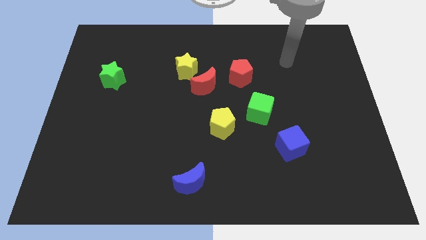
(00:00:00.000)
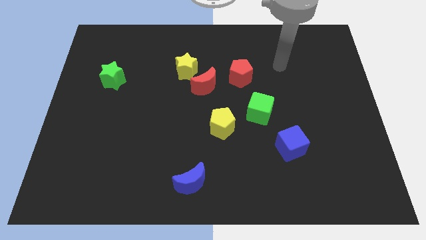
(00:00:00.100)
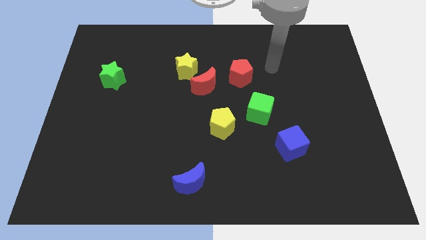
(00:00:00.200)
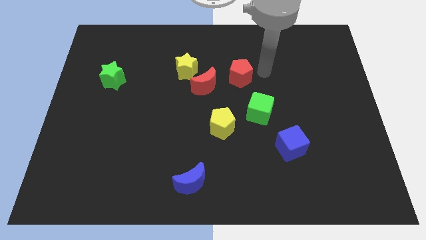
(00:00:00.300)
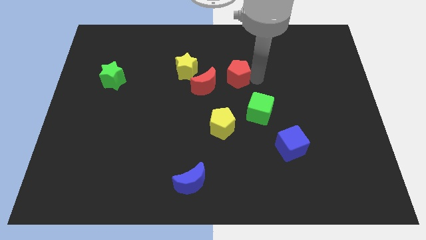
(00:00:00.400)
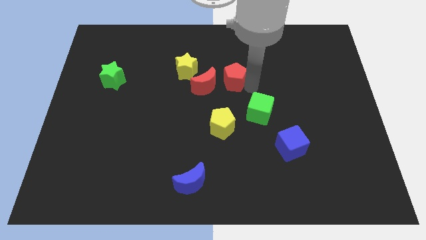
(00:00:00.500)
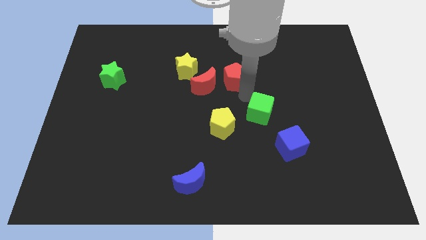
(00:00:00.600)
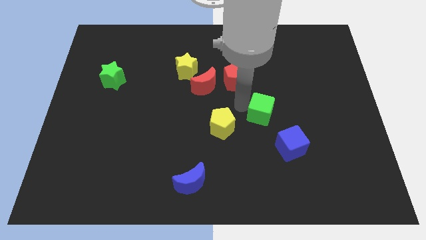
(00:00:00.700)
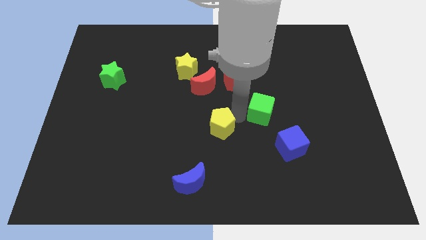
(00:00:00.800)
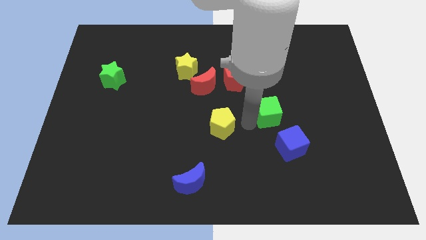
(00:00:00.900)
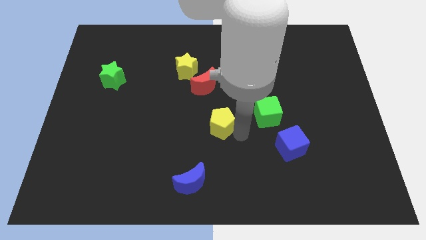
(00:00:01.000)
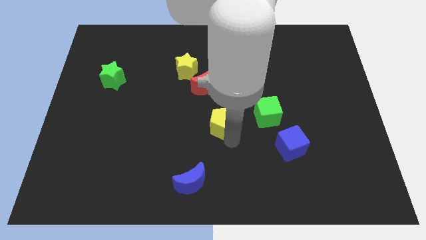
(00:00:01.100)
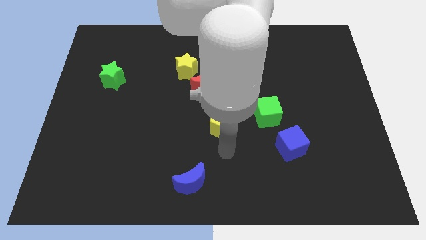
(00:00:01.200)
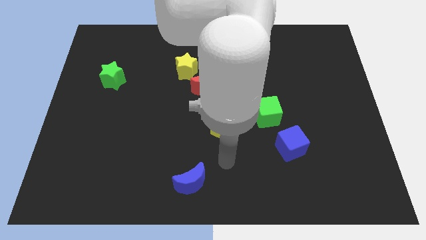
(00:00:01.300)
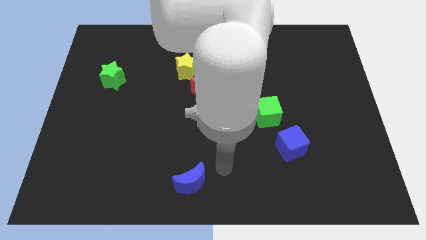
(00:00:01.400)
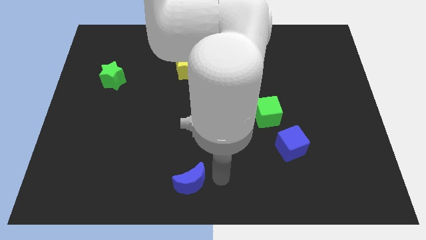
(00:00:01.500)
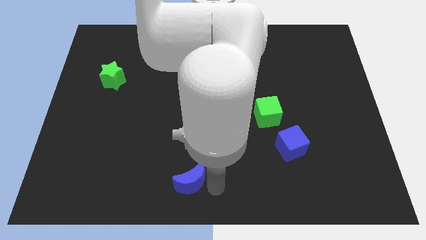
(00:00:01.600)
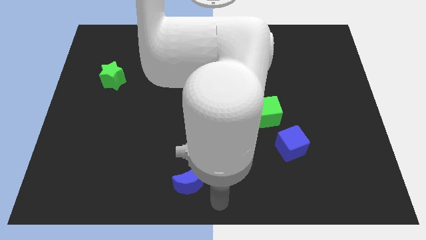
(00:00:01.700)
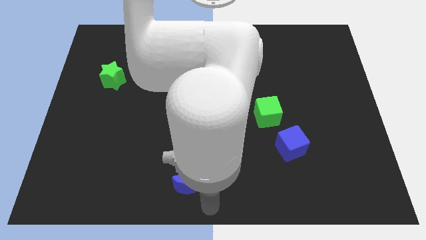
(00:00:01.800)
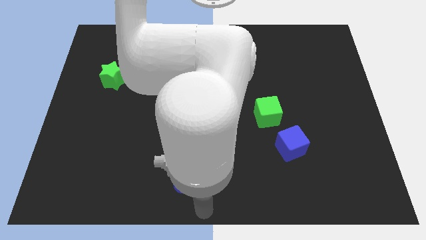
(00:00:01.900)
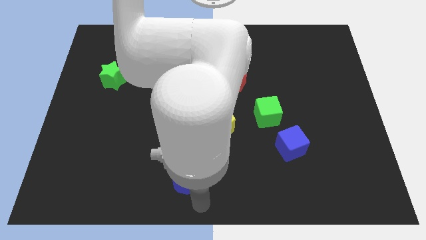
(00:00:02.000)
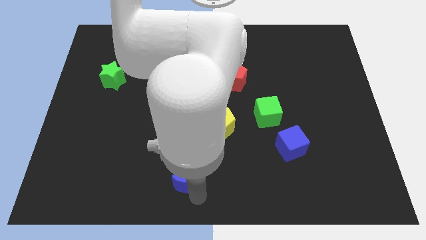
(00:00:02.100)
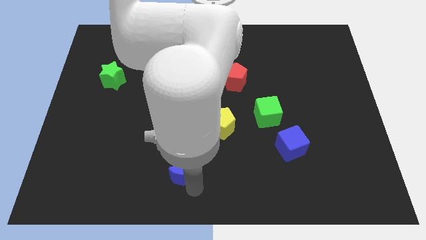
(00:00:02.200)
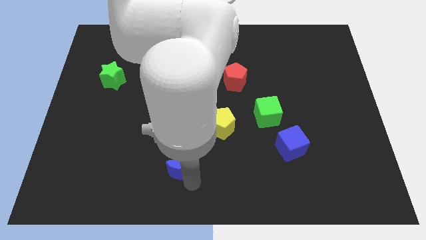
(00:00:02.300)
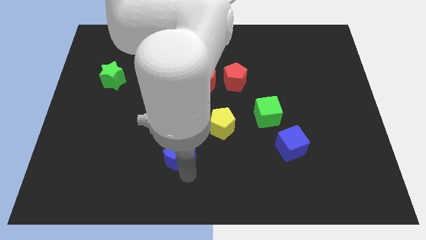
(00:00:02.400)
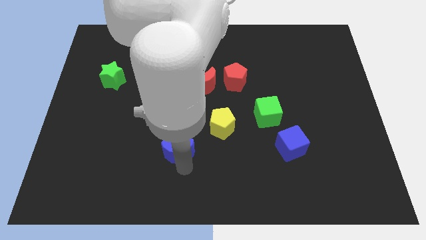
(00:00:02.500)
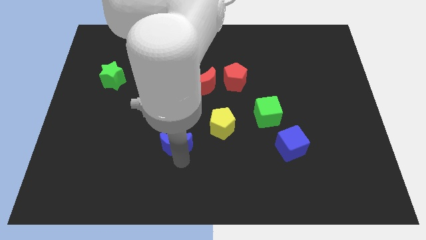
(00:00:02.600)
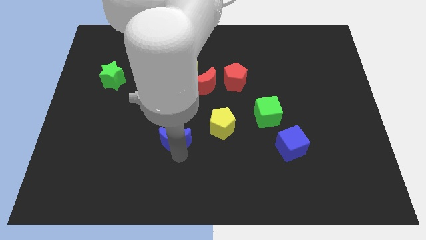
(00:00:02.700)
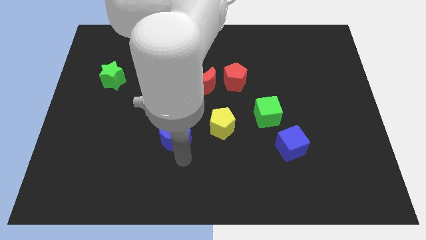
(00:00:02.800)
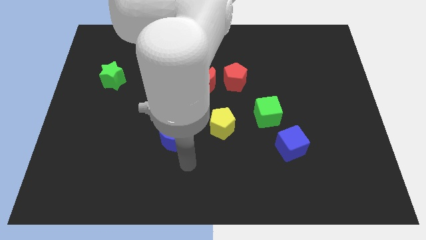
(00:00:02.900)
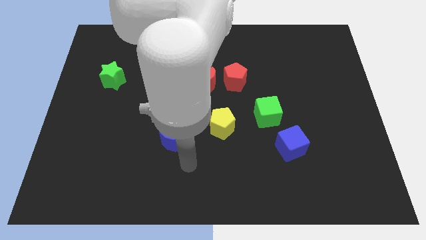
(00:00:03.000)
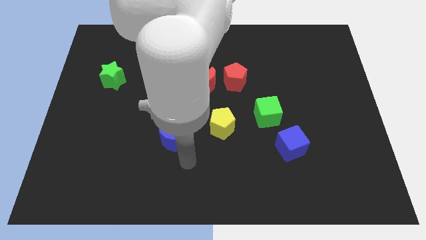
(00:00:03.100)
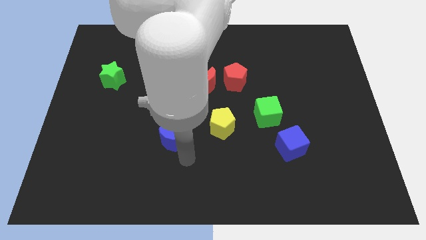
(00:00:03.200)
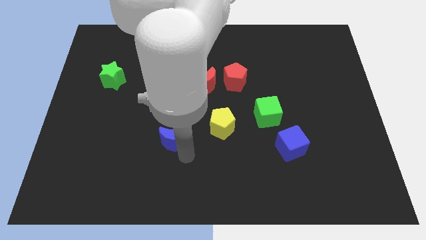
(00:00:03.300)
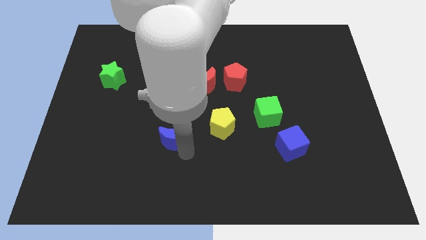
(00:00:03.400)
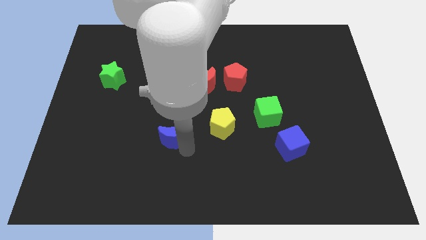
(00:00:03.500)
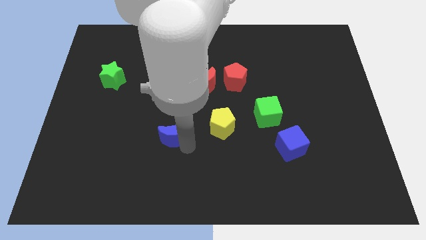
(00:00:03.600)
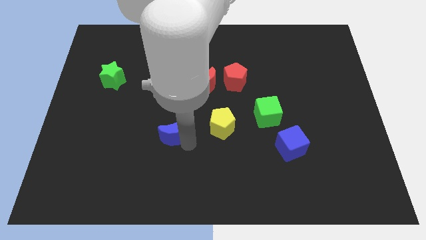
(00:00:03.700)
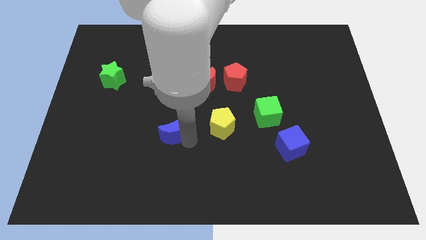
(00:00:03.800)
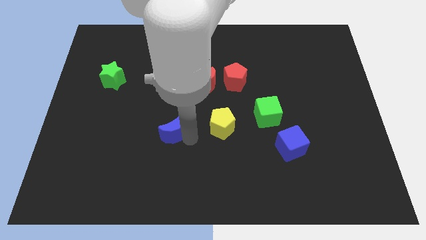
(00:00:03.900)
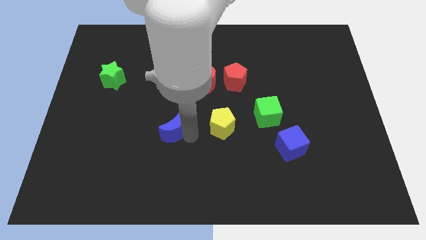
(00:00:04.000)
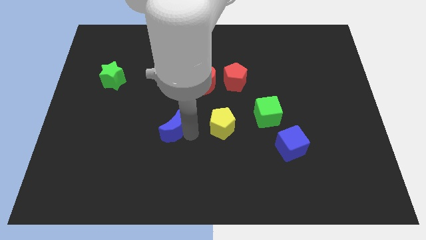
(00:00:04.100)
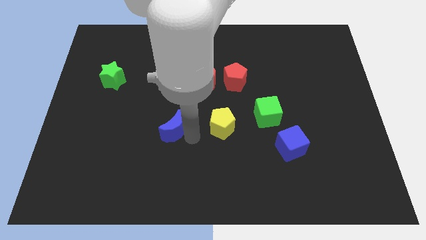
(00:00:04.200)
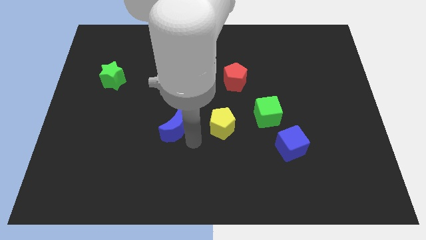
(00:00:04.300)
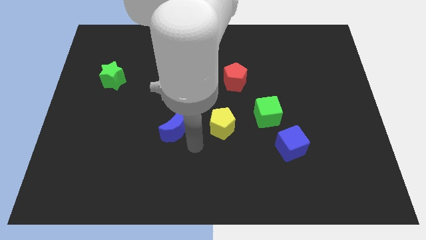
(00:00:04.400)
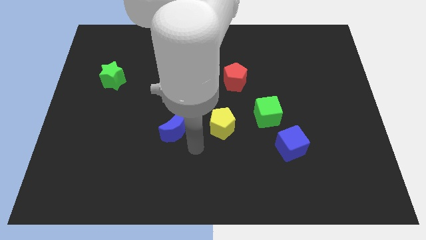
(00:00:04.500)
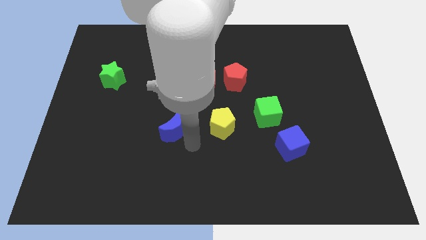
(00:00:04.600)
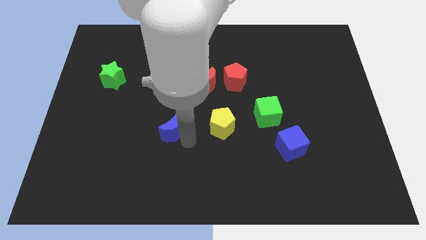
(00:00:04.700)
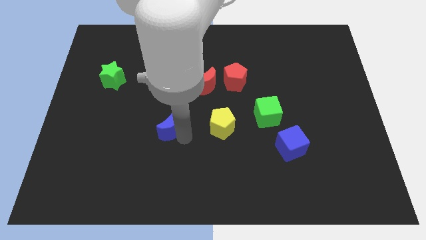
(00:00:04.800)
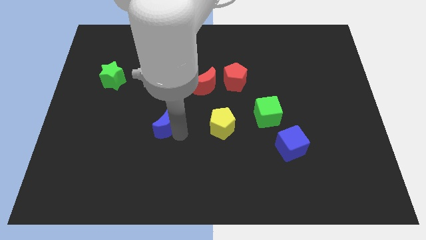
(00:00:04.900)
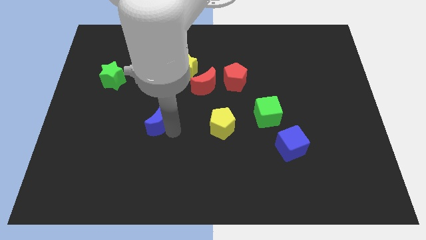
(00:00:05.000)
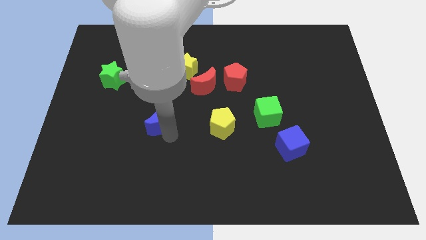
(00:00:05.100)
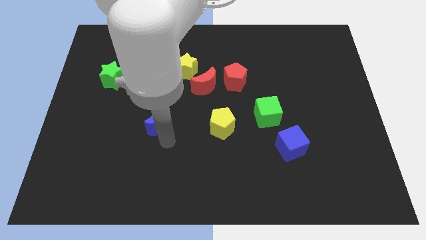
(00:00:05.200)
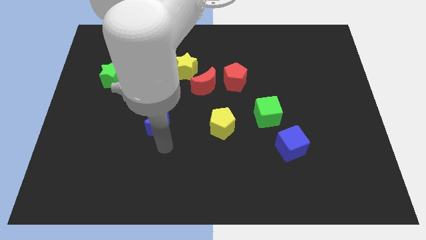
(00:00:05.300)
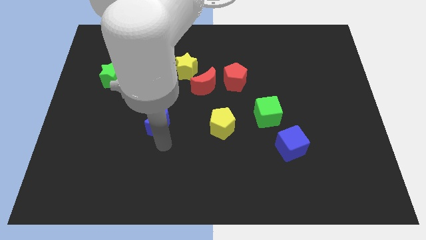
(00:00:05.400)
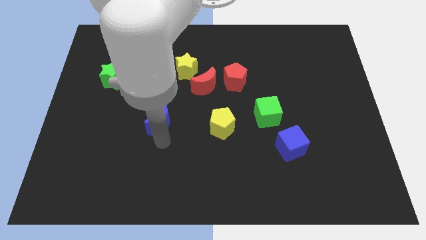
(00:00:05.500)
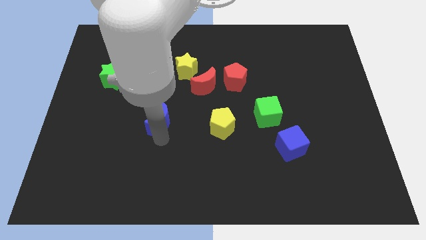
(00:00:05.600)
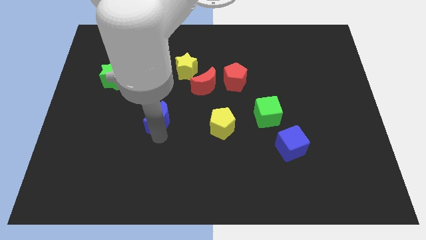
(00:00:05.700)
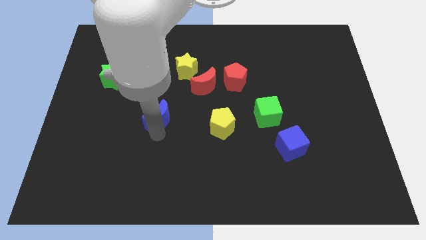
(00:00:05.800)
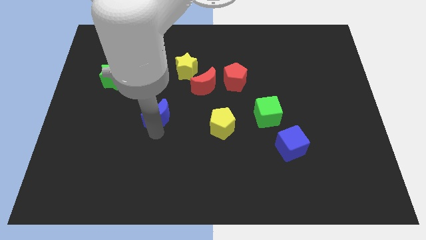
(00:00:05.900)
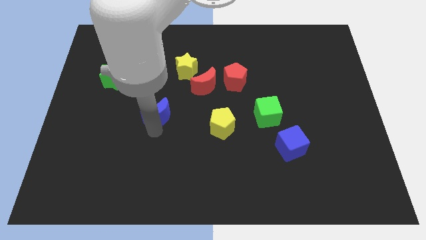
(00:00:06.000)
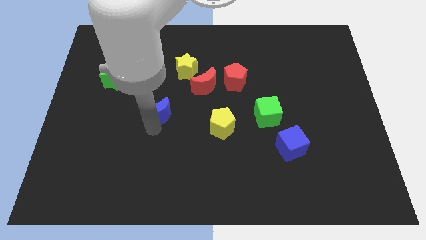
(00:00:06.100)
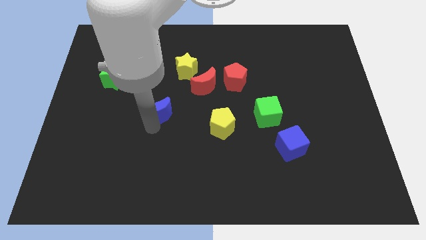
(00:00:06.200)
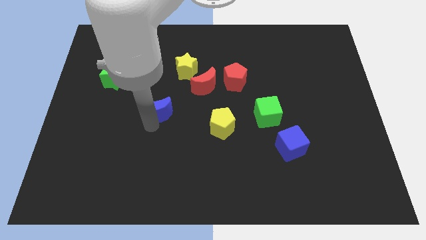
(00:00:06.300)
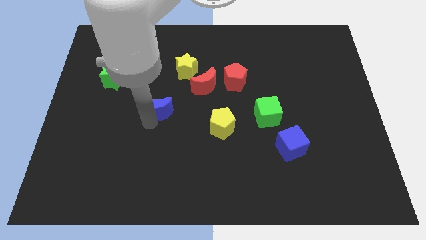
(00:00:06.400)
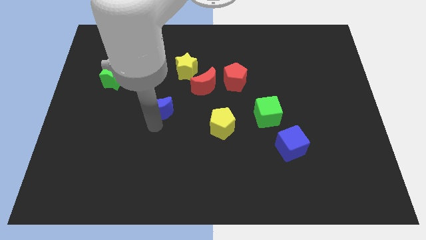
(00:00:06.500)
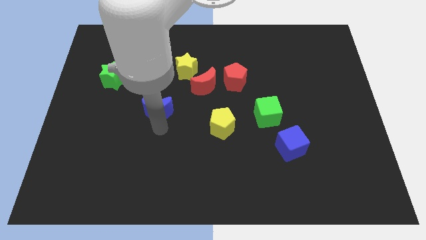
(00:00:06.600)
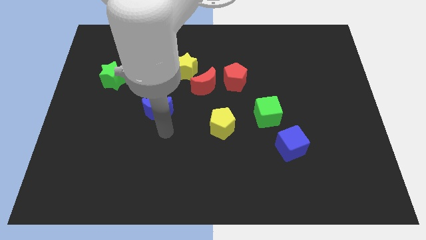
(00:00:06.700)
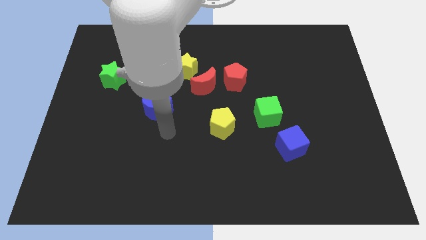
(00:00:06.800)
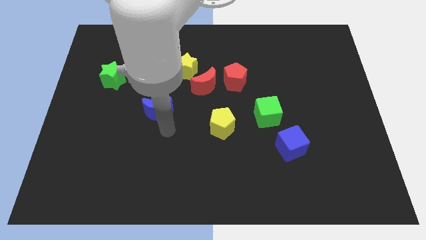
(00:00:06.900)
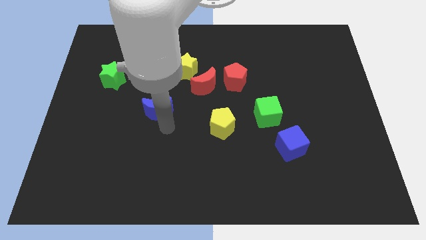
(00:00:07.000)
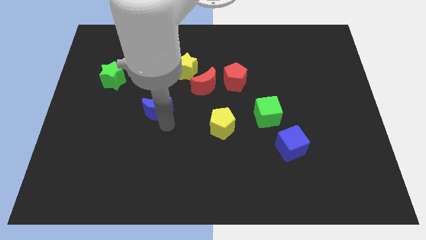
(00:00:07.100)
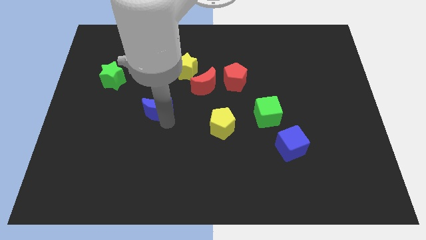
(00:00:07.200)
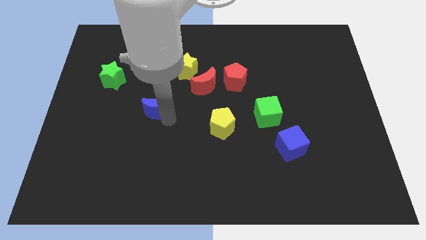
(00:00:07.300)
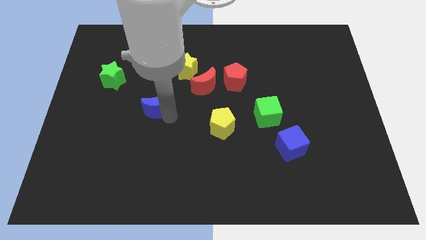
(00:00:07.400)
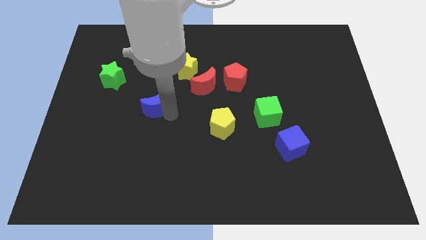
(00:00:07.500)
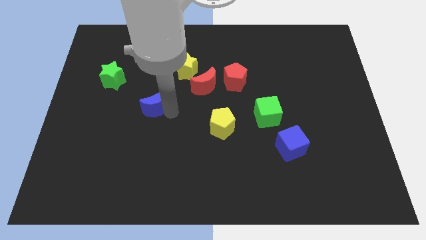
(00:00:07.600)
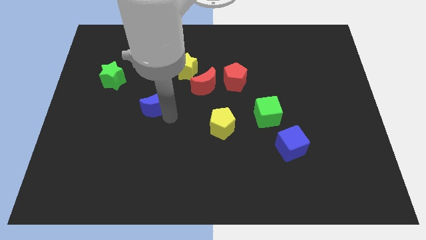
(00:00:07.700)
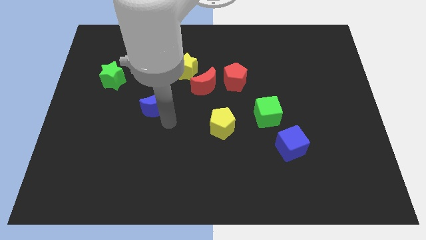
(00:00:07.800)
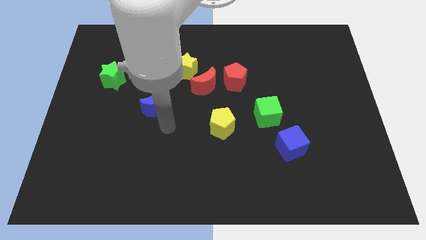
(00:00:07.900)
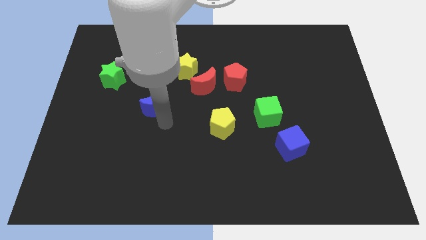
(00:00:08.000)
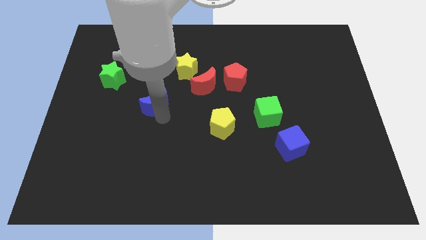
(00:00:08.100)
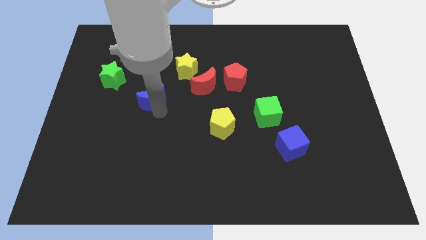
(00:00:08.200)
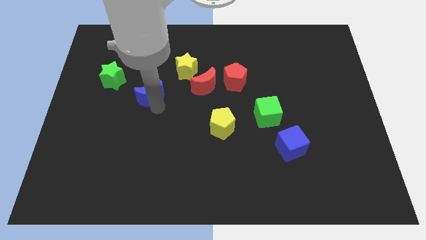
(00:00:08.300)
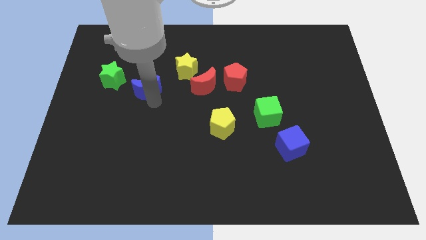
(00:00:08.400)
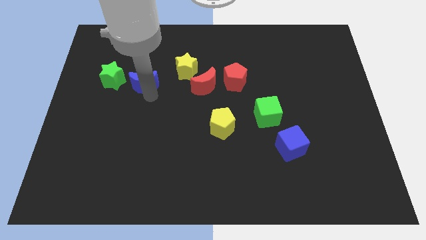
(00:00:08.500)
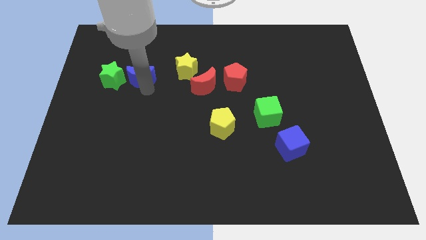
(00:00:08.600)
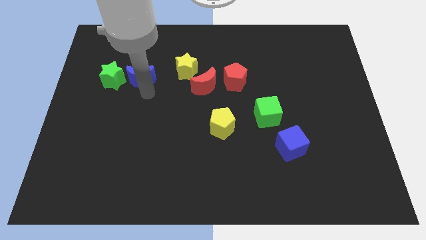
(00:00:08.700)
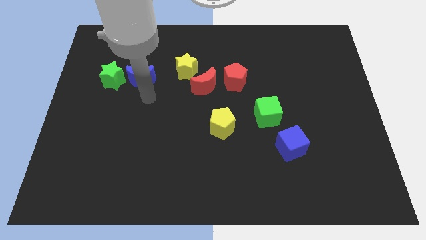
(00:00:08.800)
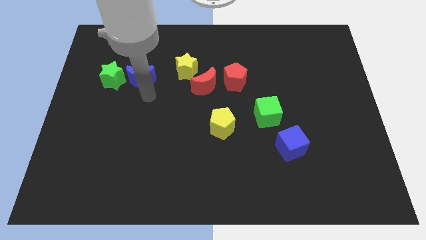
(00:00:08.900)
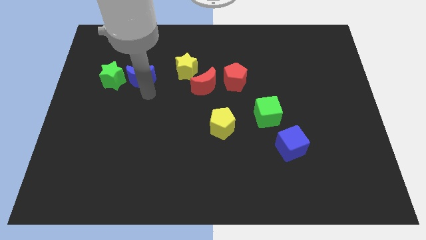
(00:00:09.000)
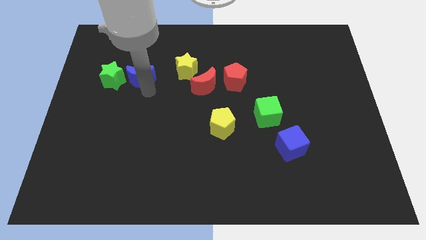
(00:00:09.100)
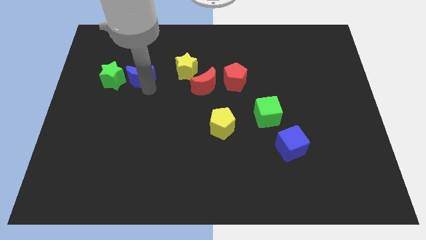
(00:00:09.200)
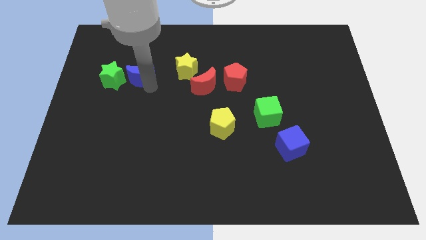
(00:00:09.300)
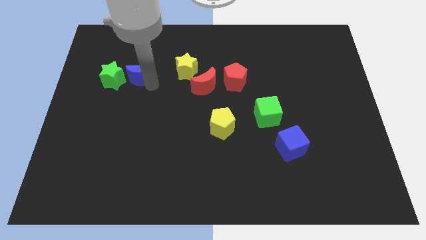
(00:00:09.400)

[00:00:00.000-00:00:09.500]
put the blue moon to the top right side of the green star
